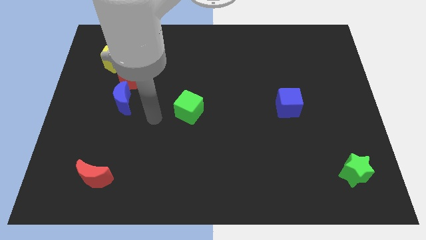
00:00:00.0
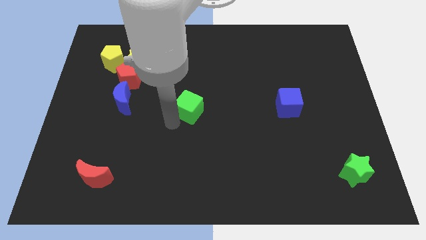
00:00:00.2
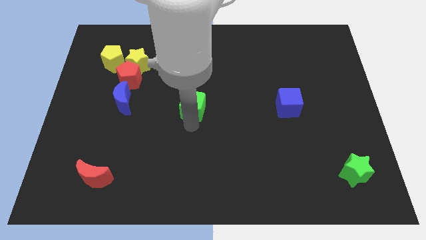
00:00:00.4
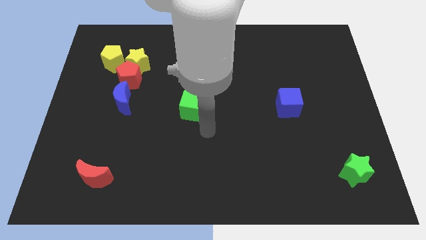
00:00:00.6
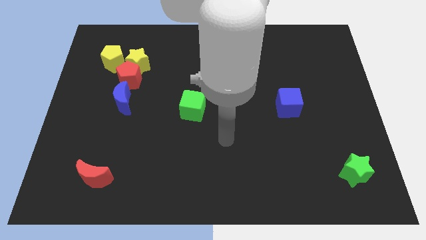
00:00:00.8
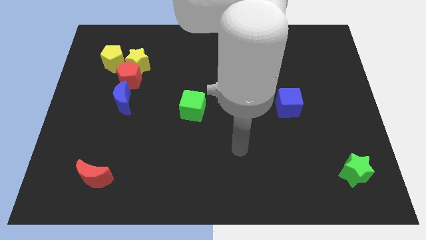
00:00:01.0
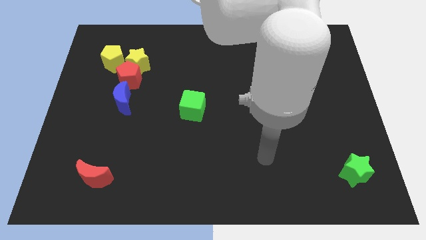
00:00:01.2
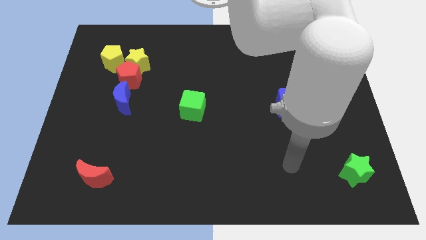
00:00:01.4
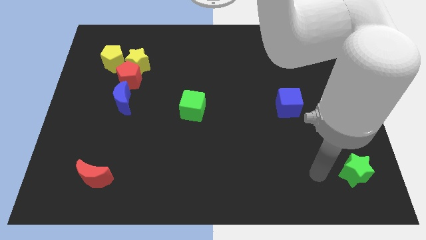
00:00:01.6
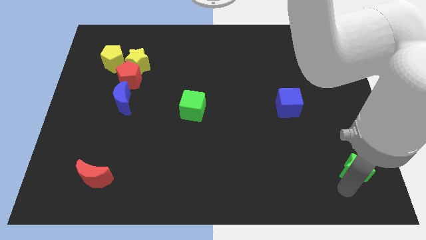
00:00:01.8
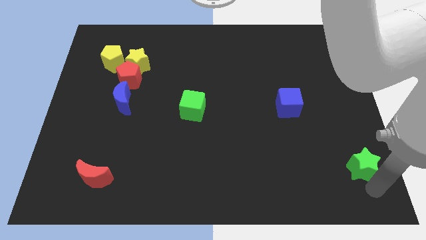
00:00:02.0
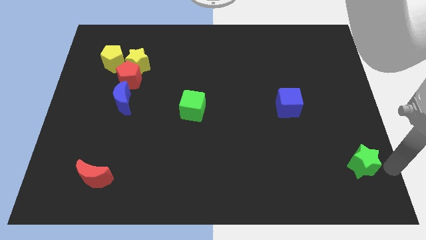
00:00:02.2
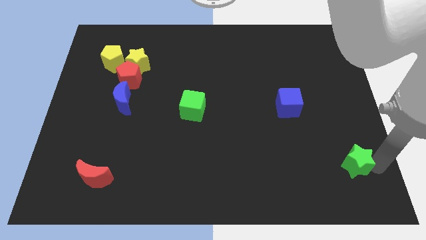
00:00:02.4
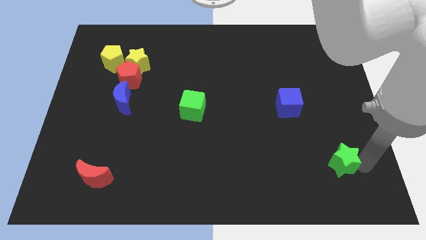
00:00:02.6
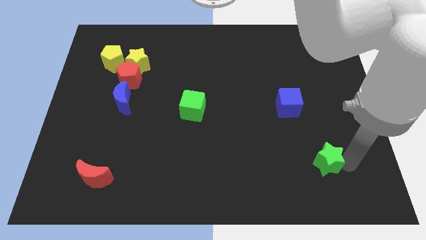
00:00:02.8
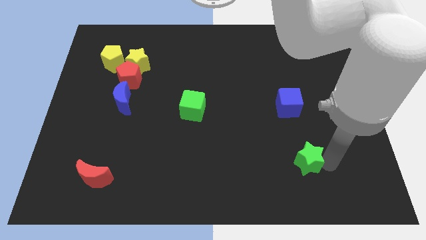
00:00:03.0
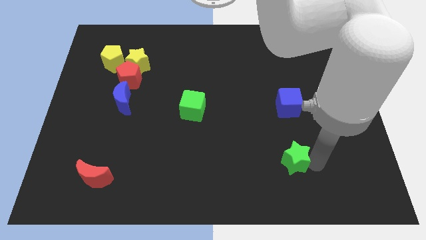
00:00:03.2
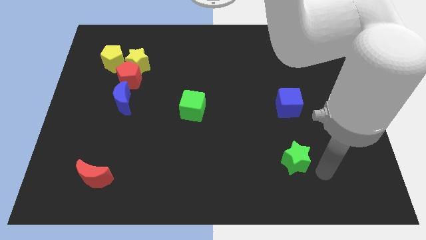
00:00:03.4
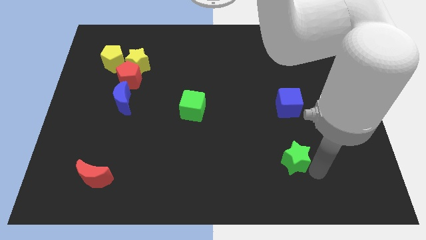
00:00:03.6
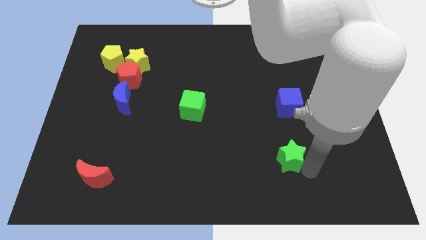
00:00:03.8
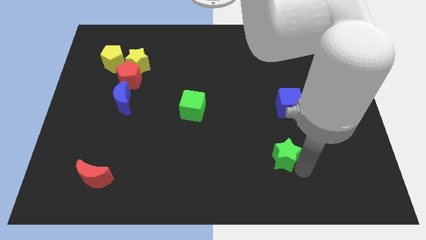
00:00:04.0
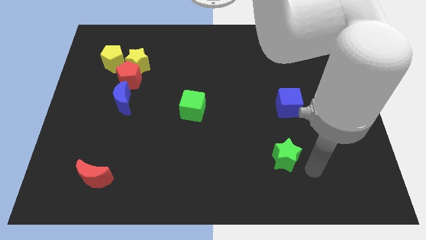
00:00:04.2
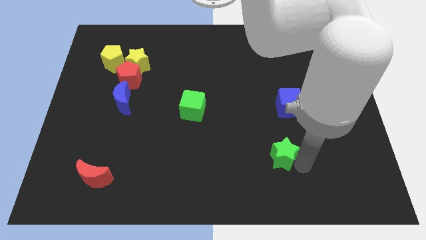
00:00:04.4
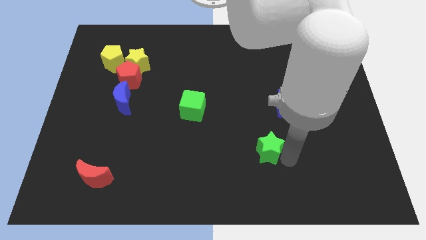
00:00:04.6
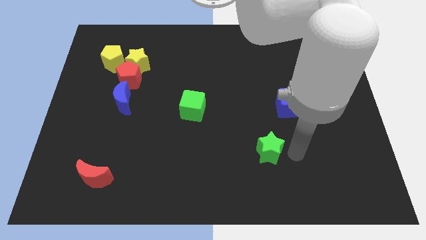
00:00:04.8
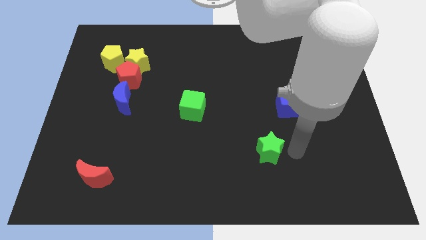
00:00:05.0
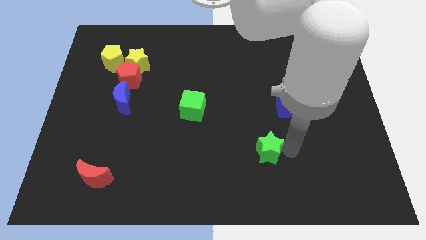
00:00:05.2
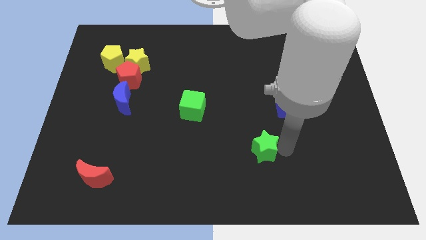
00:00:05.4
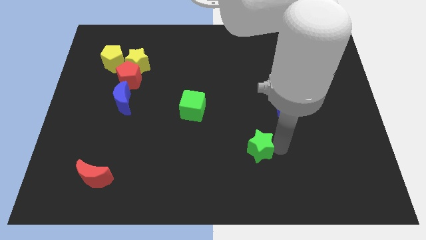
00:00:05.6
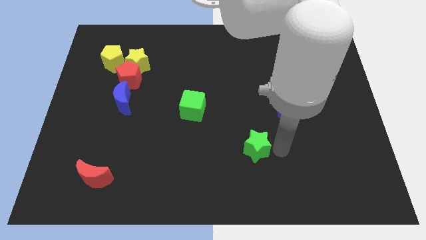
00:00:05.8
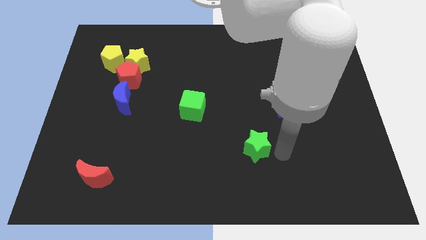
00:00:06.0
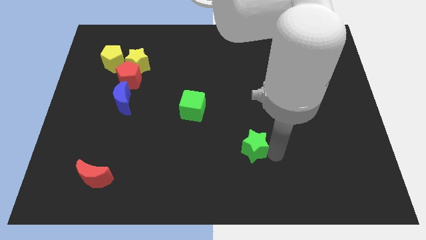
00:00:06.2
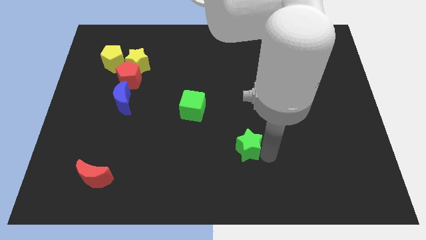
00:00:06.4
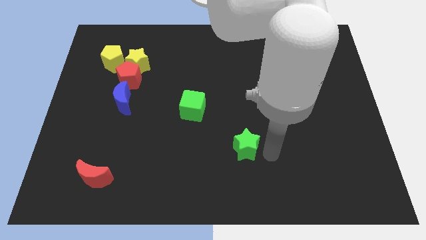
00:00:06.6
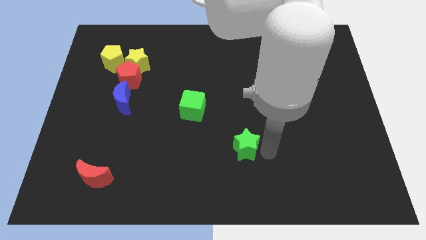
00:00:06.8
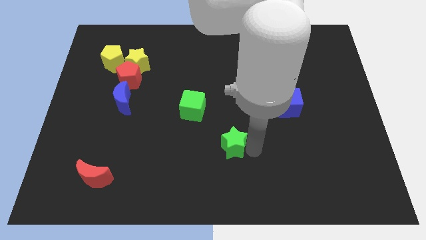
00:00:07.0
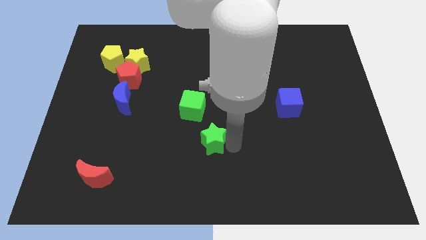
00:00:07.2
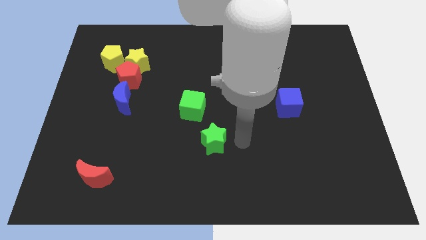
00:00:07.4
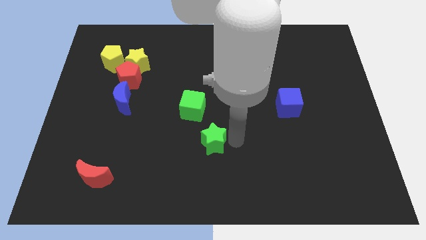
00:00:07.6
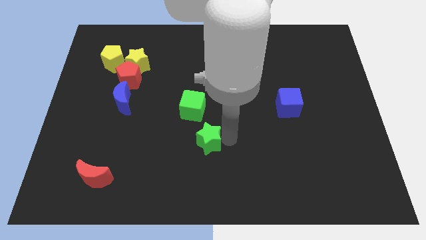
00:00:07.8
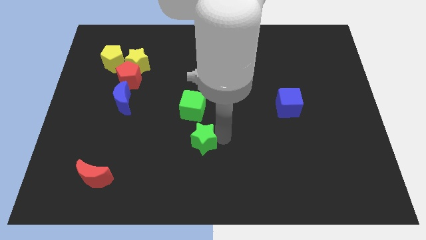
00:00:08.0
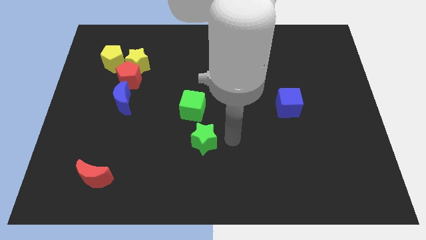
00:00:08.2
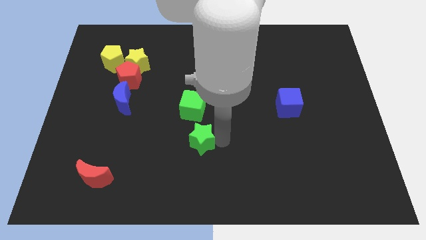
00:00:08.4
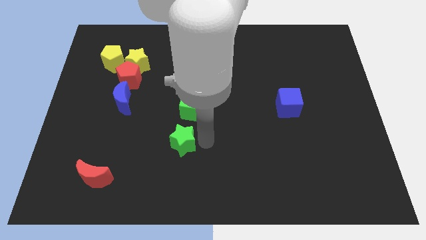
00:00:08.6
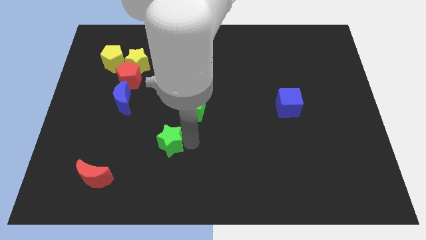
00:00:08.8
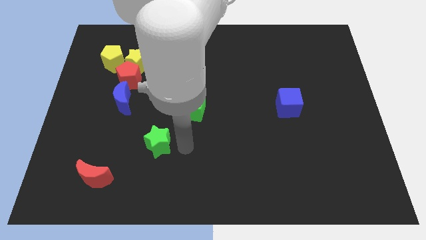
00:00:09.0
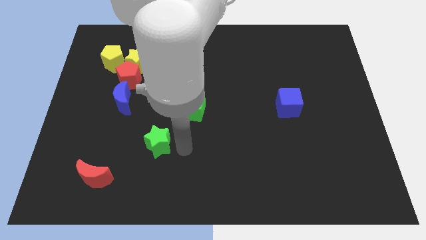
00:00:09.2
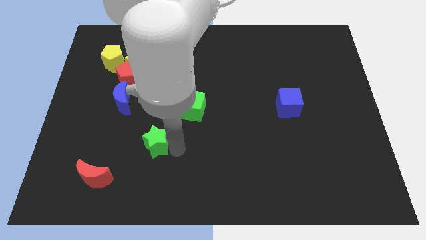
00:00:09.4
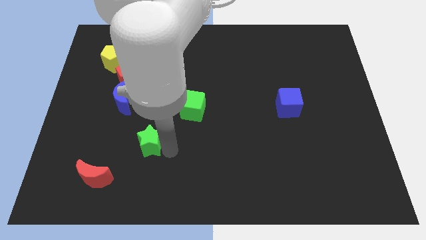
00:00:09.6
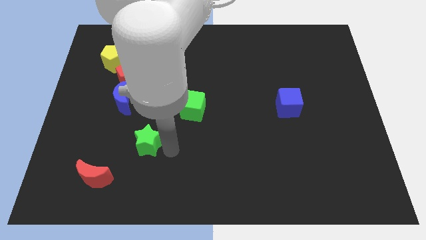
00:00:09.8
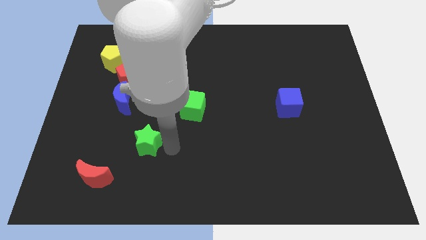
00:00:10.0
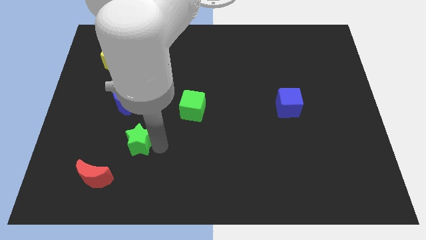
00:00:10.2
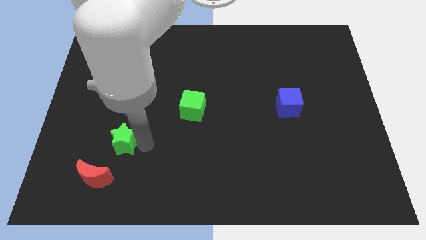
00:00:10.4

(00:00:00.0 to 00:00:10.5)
slide the green star above the red moon

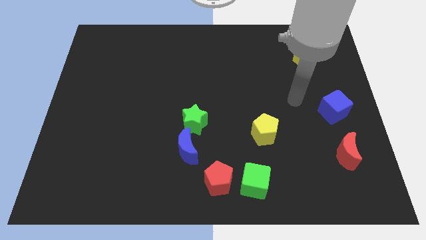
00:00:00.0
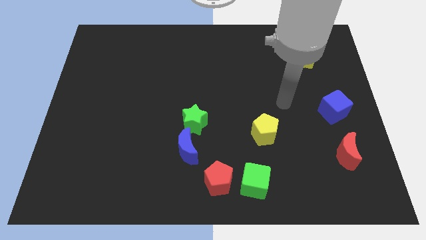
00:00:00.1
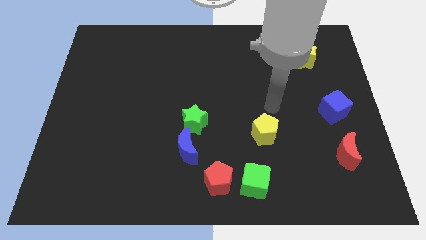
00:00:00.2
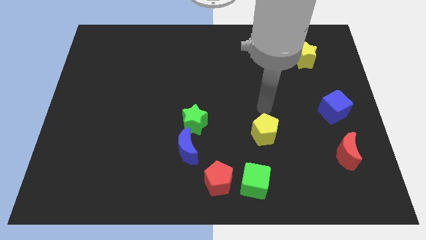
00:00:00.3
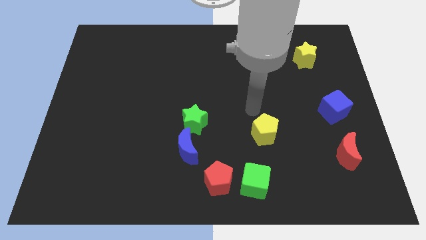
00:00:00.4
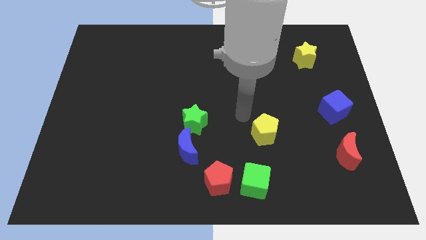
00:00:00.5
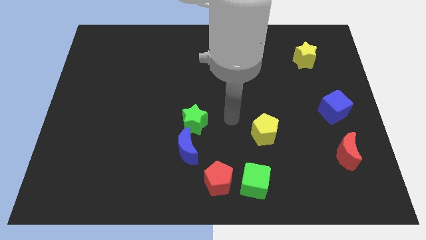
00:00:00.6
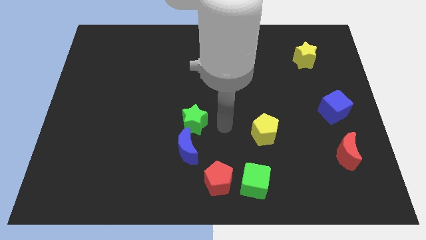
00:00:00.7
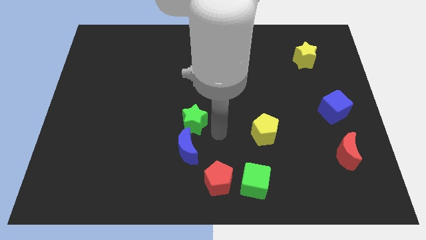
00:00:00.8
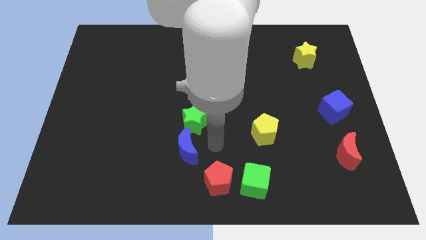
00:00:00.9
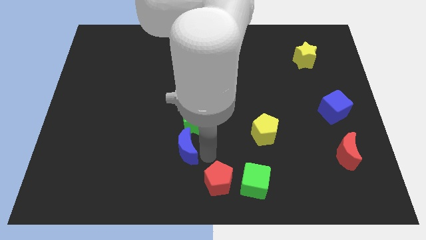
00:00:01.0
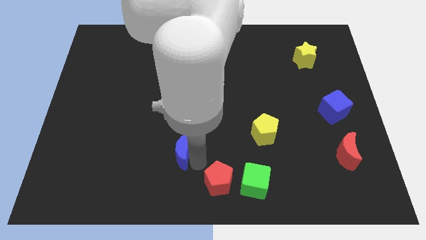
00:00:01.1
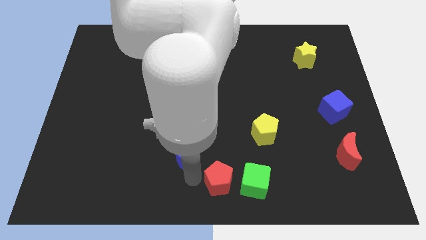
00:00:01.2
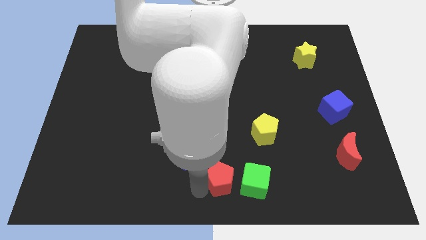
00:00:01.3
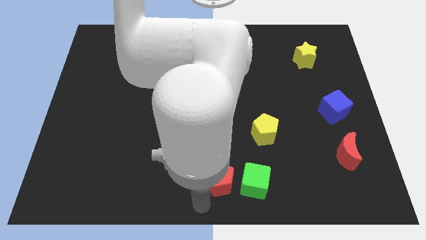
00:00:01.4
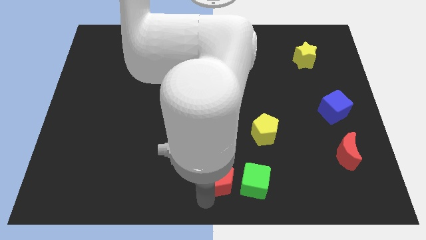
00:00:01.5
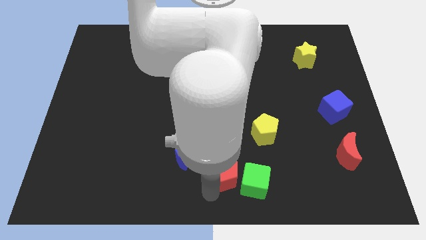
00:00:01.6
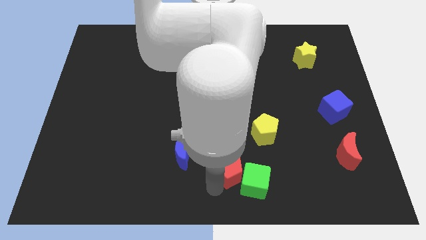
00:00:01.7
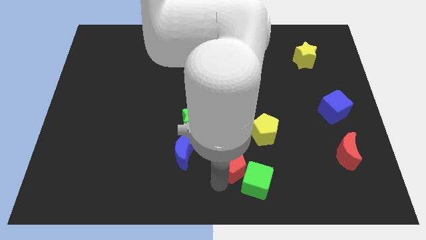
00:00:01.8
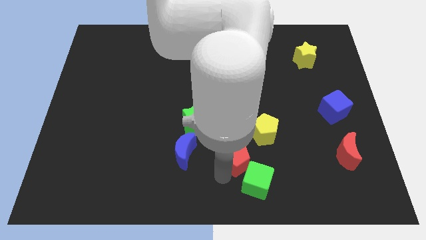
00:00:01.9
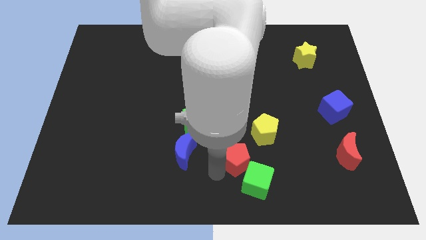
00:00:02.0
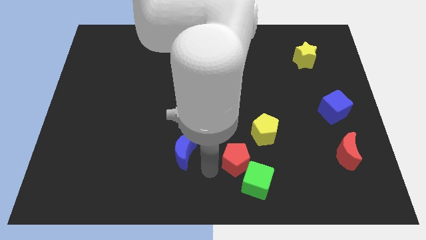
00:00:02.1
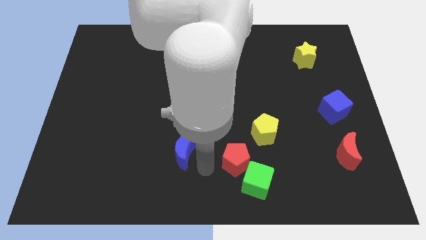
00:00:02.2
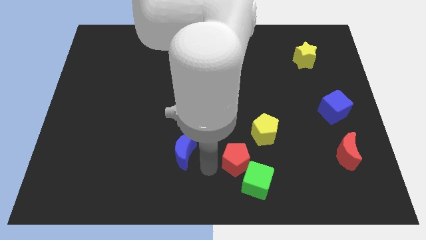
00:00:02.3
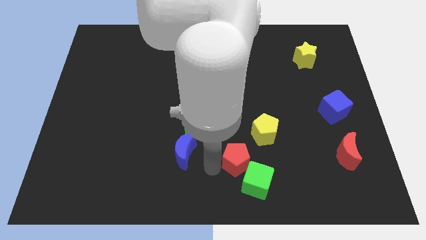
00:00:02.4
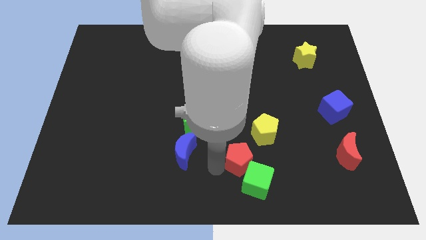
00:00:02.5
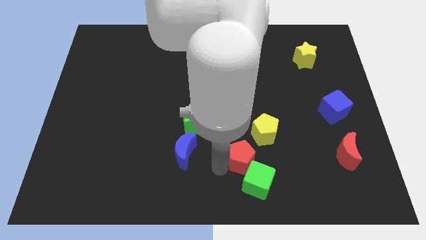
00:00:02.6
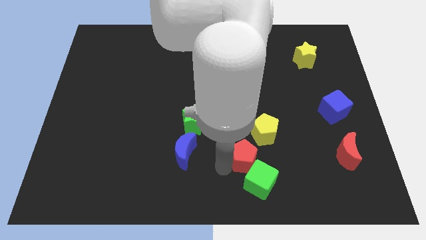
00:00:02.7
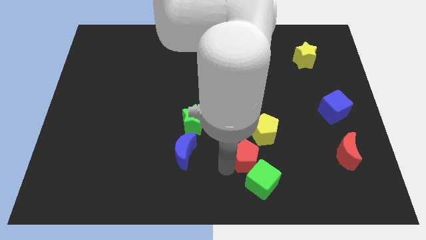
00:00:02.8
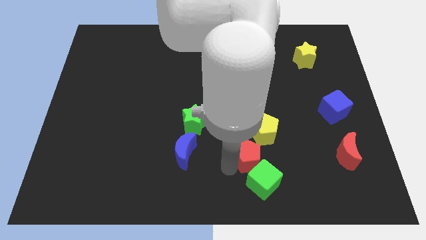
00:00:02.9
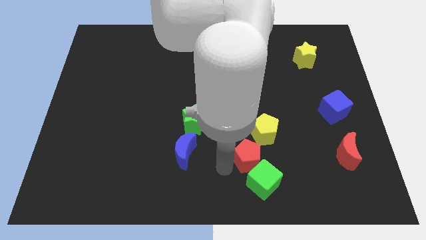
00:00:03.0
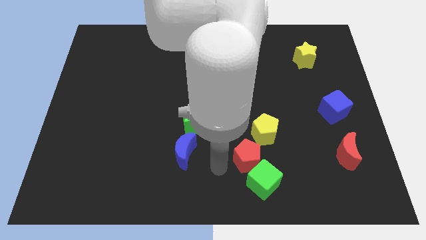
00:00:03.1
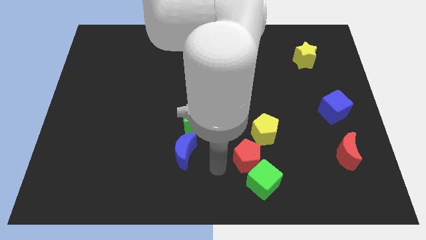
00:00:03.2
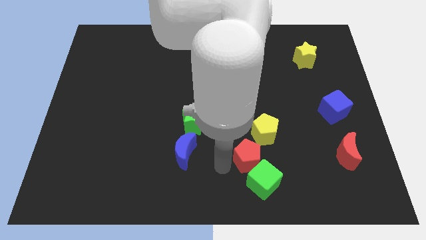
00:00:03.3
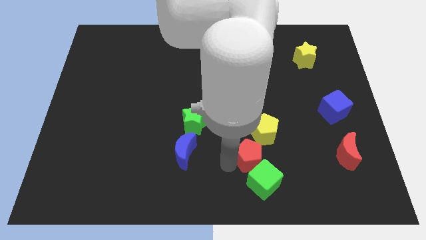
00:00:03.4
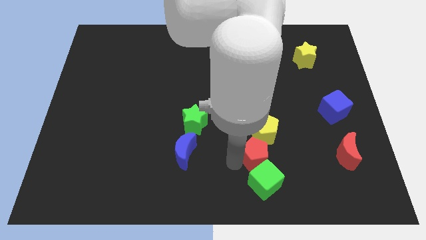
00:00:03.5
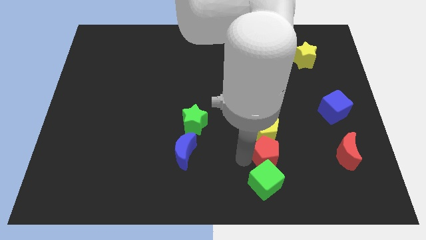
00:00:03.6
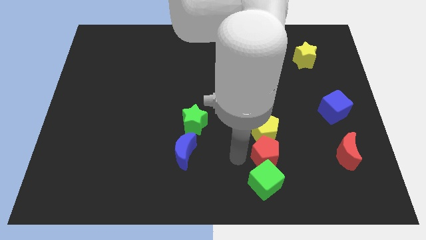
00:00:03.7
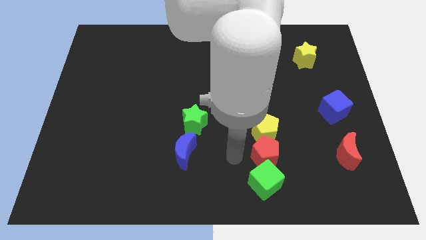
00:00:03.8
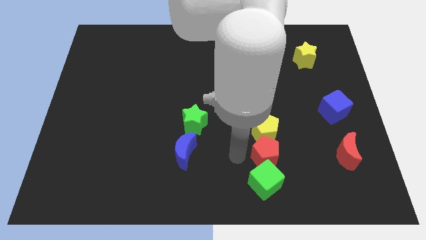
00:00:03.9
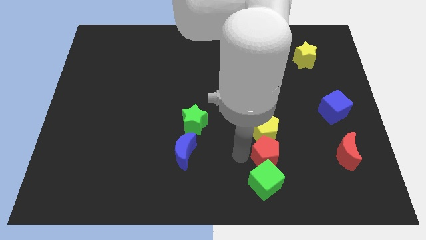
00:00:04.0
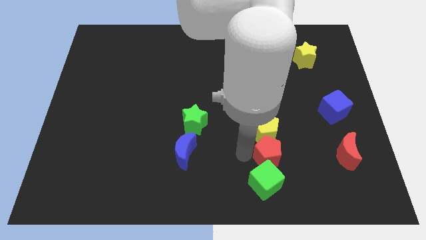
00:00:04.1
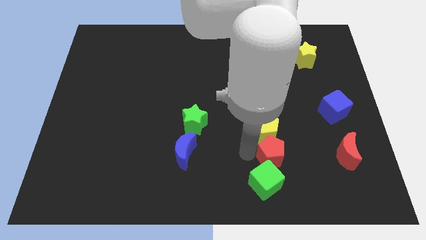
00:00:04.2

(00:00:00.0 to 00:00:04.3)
push the red pentagon just left of the red moon
